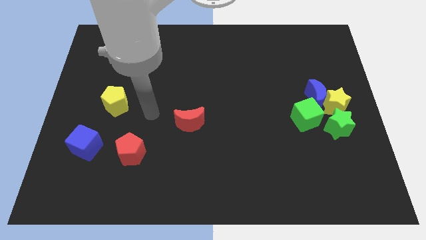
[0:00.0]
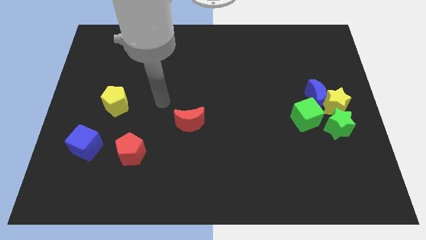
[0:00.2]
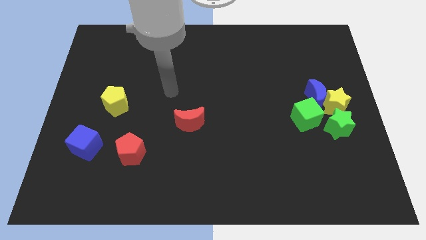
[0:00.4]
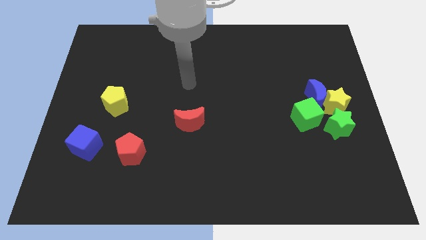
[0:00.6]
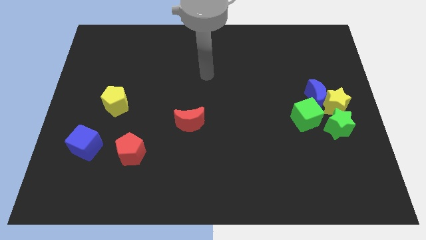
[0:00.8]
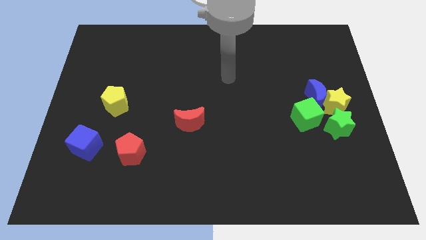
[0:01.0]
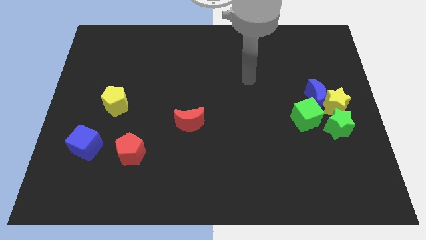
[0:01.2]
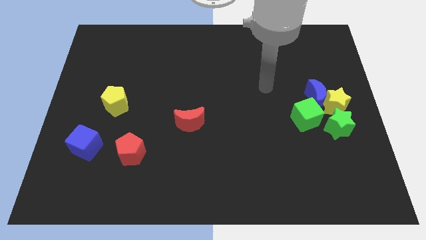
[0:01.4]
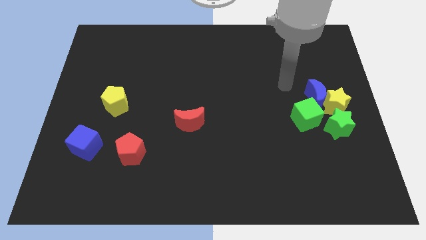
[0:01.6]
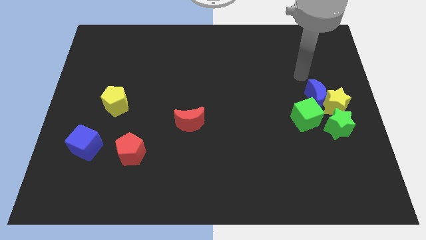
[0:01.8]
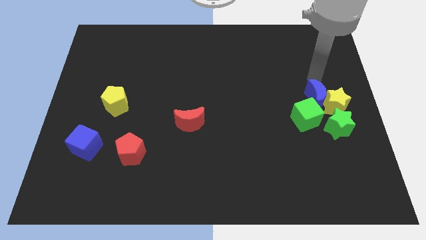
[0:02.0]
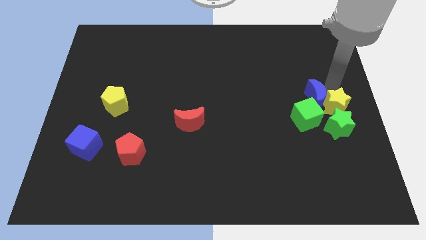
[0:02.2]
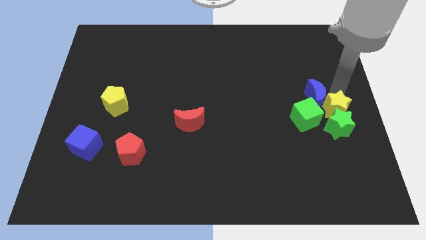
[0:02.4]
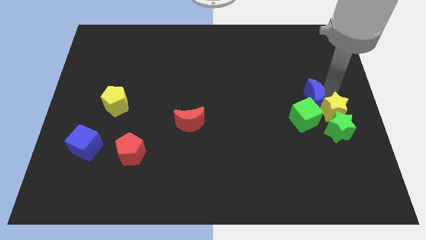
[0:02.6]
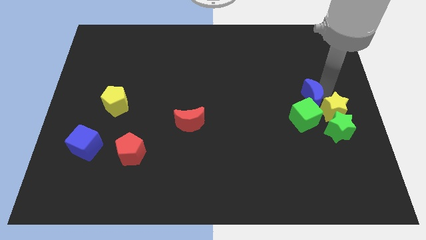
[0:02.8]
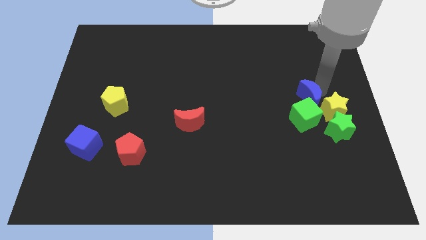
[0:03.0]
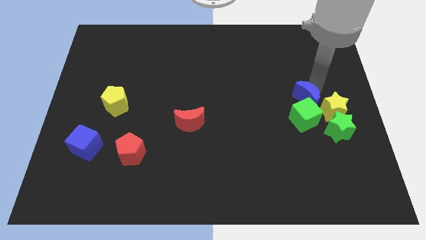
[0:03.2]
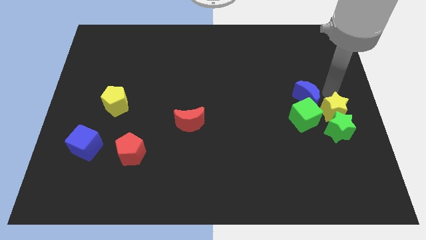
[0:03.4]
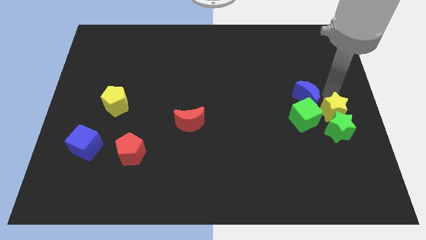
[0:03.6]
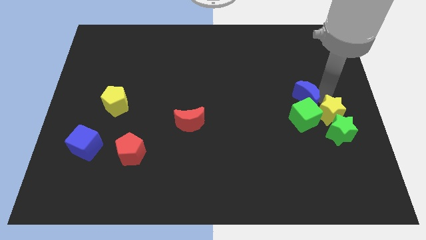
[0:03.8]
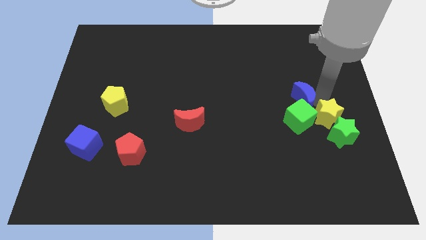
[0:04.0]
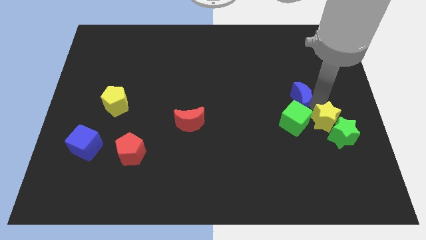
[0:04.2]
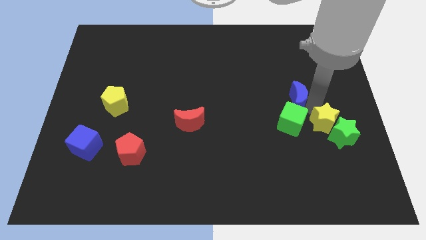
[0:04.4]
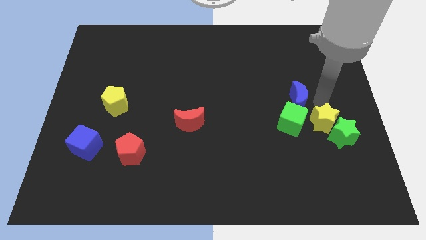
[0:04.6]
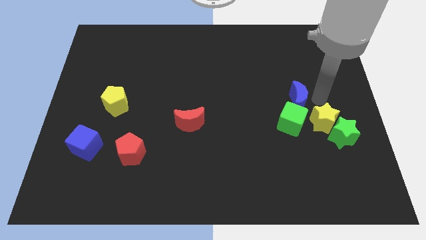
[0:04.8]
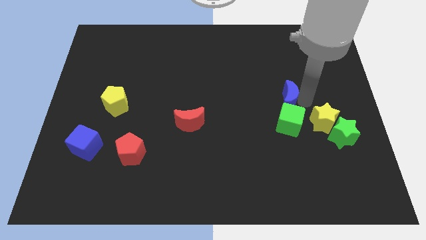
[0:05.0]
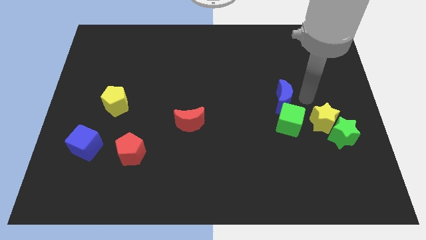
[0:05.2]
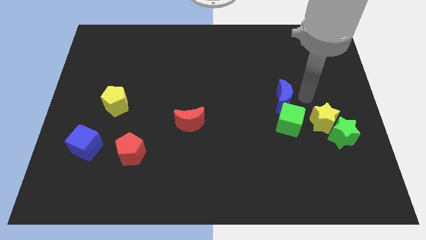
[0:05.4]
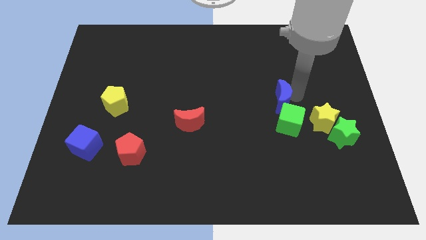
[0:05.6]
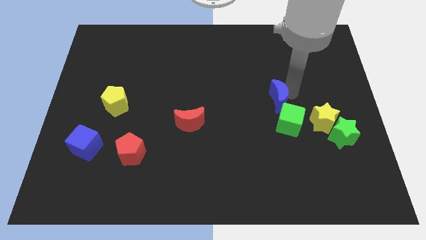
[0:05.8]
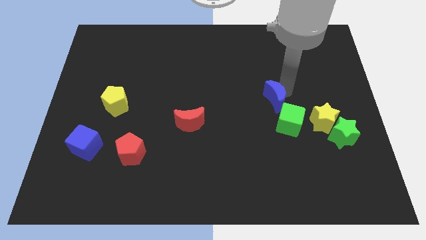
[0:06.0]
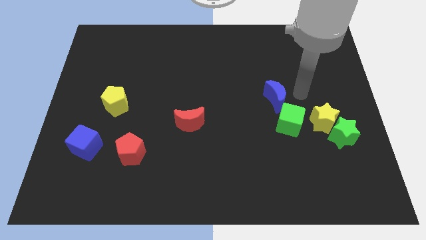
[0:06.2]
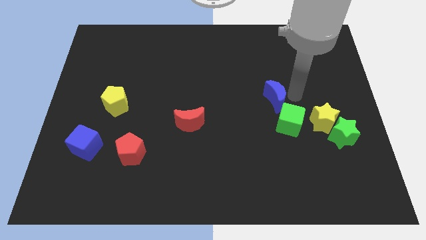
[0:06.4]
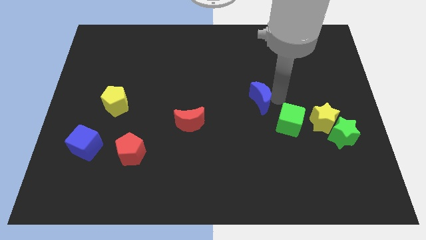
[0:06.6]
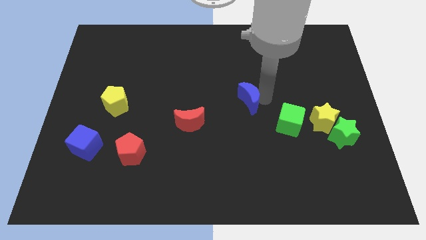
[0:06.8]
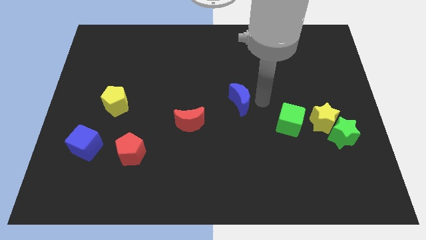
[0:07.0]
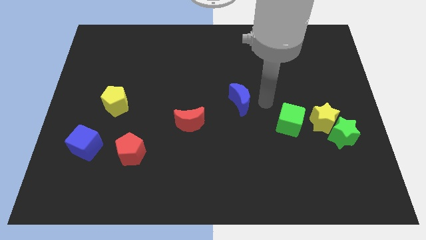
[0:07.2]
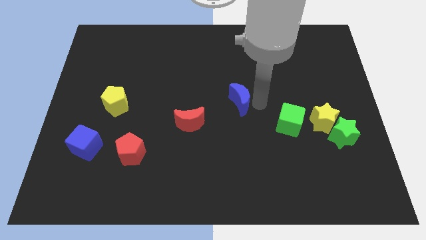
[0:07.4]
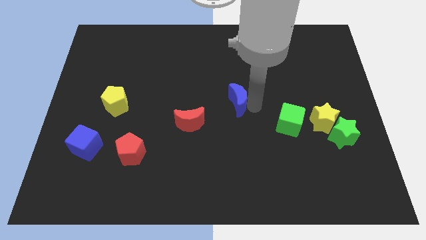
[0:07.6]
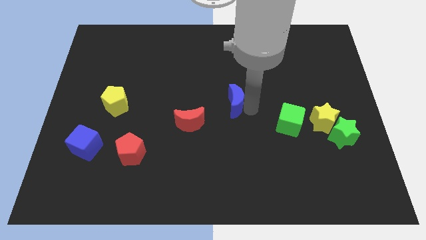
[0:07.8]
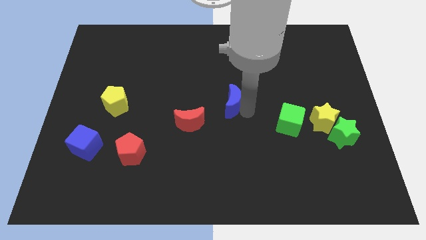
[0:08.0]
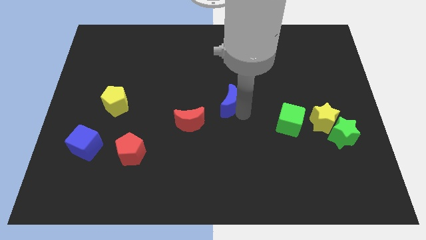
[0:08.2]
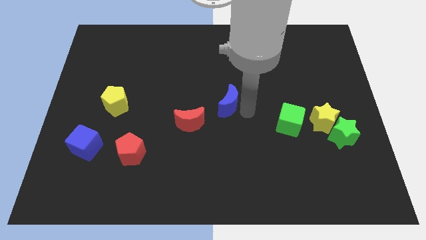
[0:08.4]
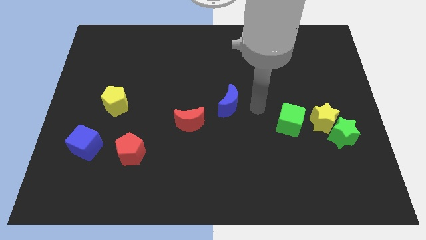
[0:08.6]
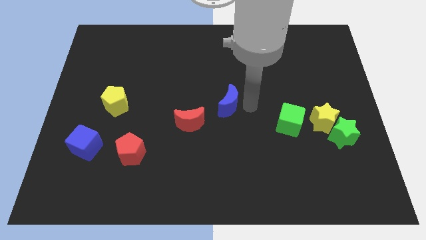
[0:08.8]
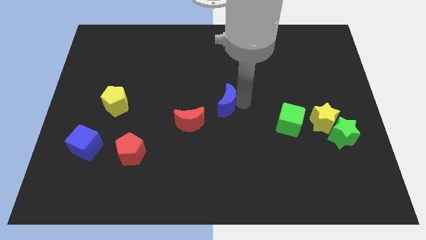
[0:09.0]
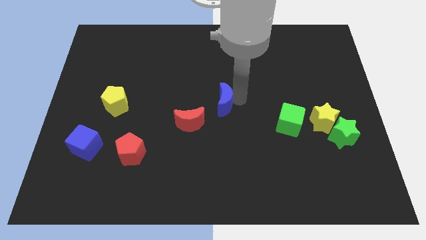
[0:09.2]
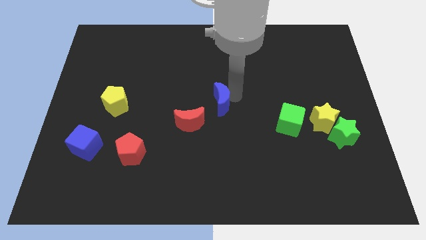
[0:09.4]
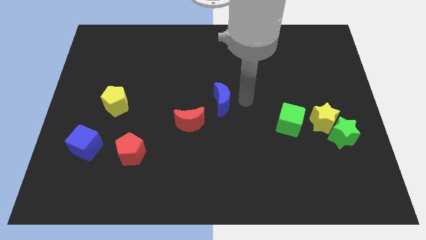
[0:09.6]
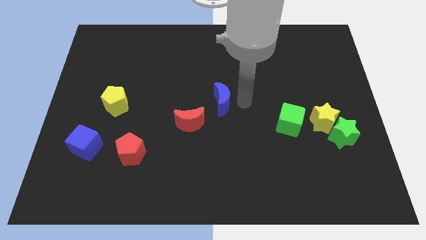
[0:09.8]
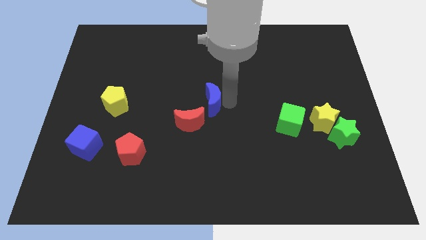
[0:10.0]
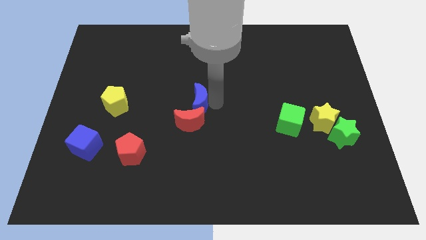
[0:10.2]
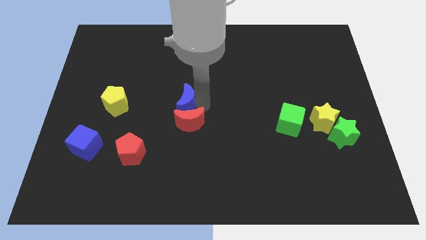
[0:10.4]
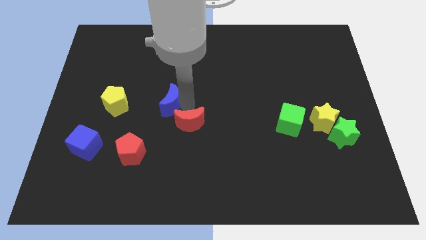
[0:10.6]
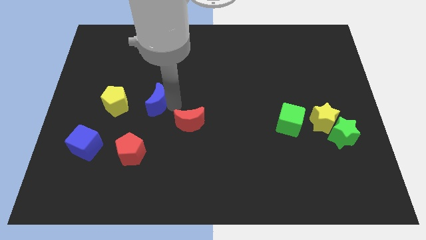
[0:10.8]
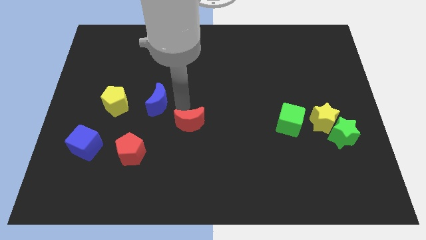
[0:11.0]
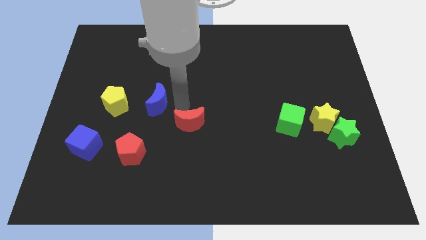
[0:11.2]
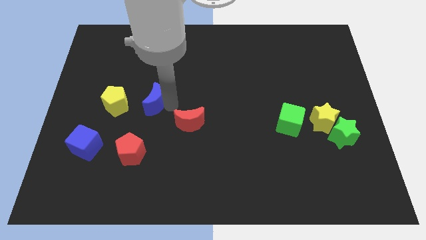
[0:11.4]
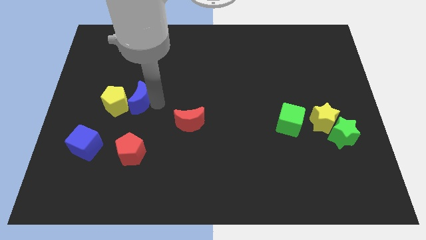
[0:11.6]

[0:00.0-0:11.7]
put the blue moon to the yellow pentagon

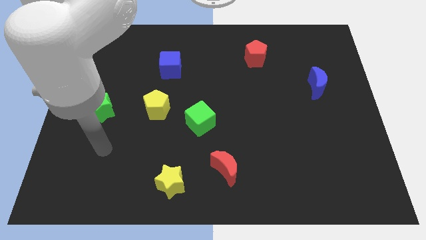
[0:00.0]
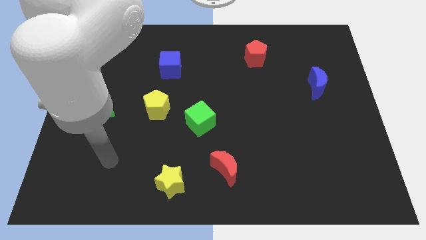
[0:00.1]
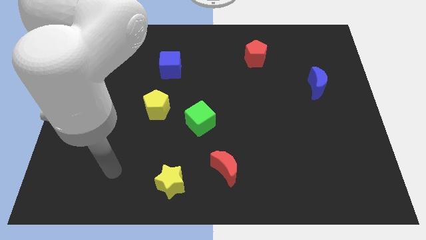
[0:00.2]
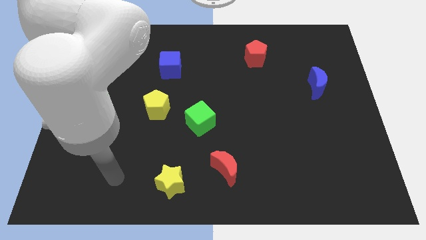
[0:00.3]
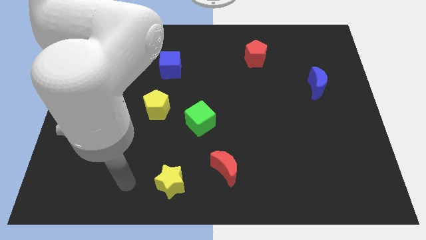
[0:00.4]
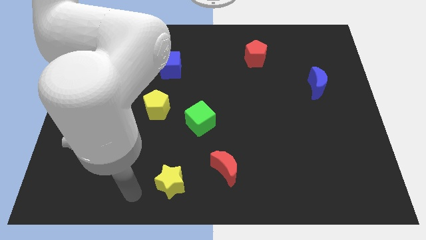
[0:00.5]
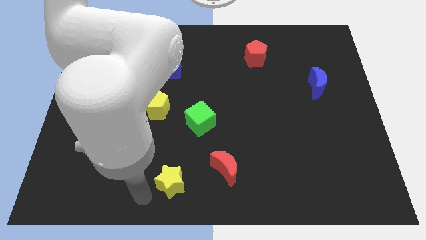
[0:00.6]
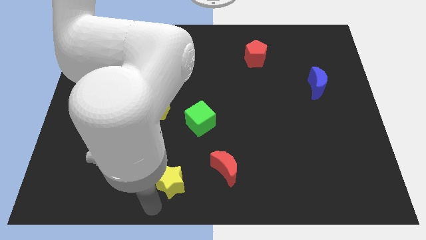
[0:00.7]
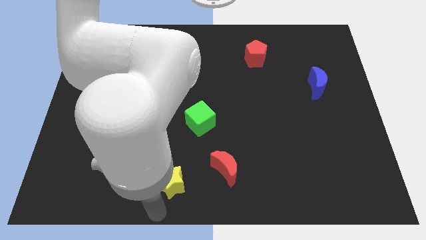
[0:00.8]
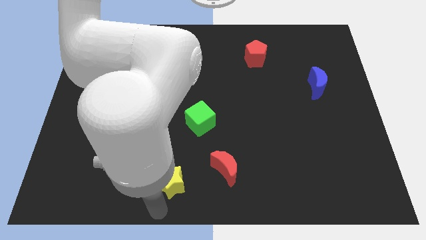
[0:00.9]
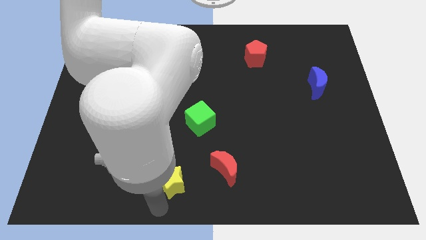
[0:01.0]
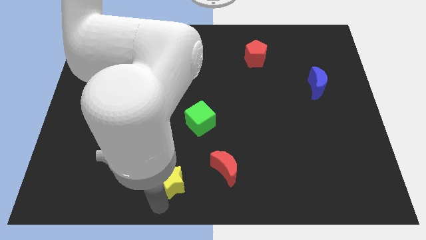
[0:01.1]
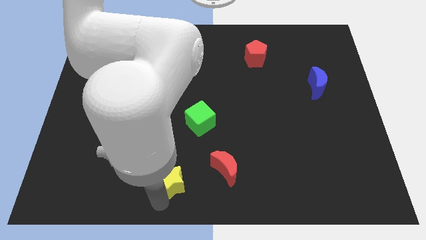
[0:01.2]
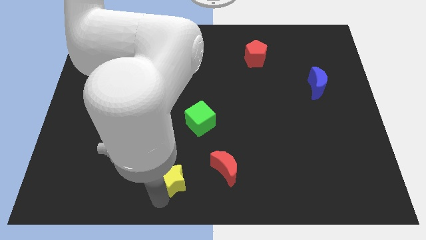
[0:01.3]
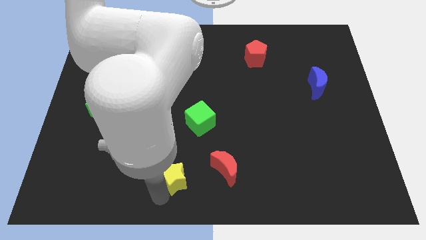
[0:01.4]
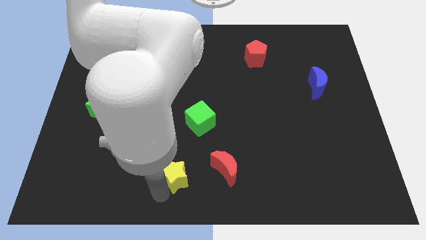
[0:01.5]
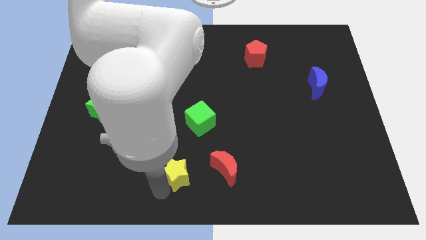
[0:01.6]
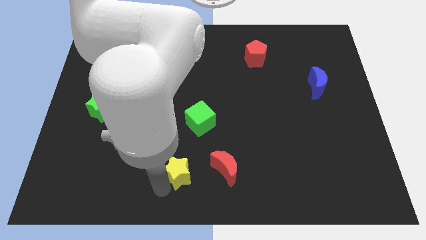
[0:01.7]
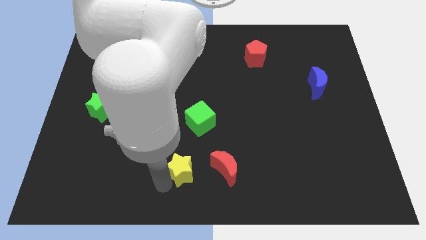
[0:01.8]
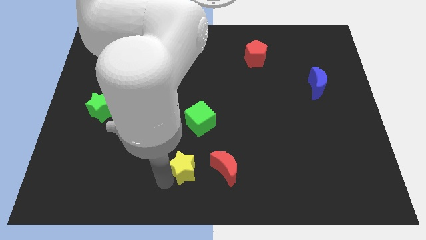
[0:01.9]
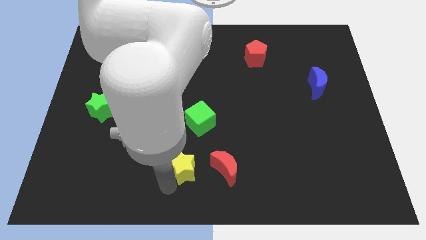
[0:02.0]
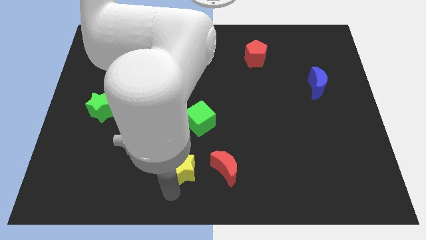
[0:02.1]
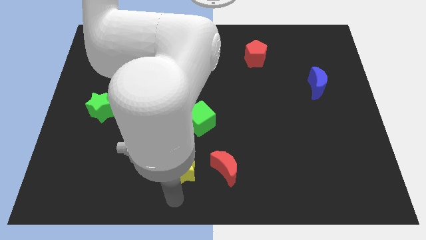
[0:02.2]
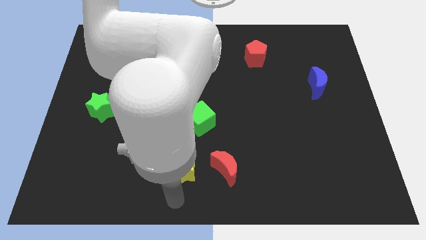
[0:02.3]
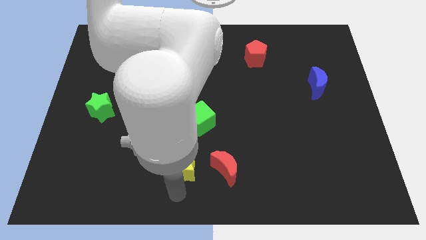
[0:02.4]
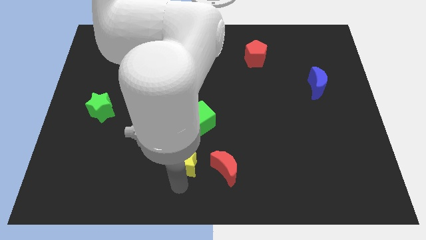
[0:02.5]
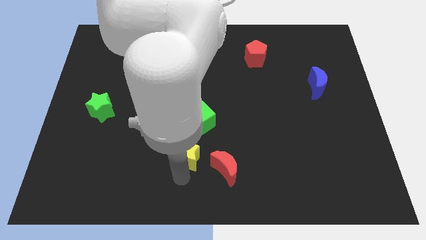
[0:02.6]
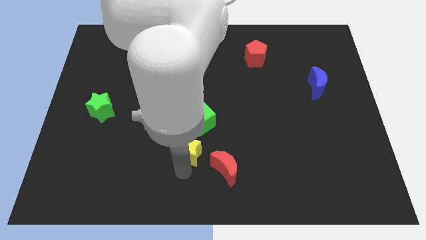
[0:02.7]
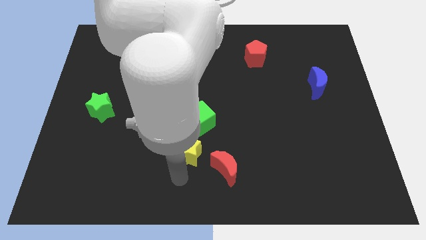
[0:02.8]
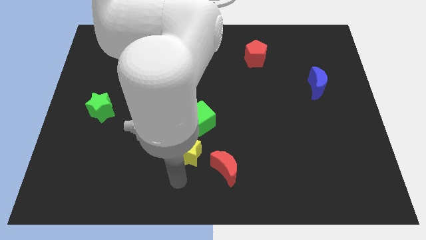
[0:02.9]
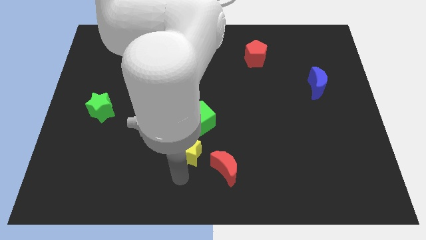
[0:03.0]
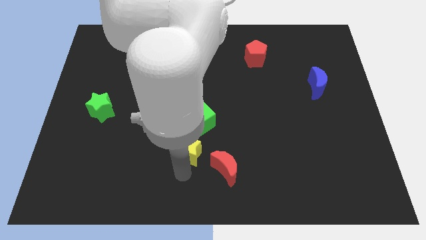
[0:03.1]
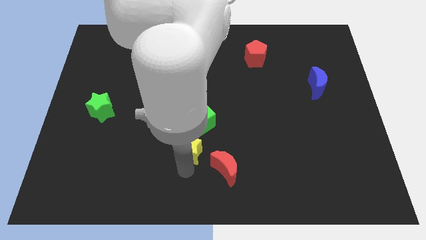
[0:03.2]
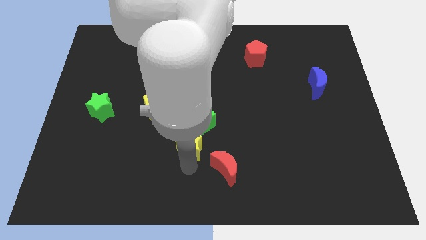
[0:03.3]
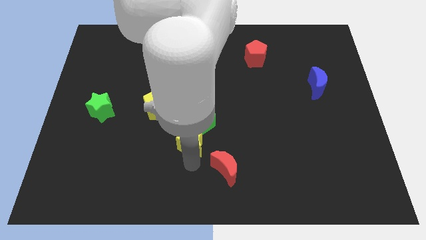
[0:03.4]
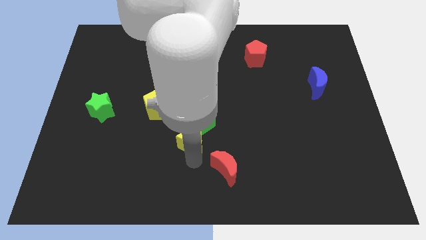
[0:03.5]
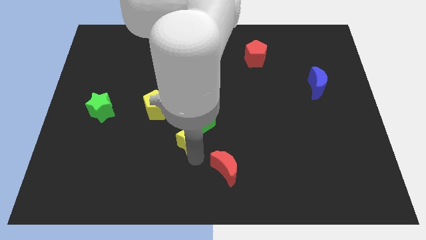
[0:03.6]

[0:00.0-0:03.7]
move the yellow star towards the green cube
